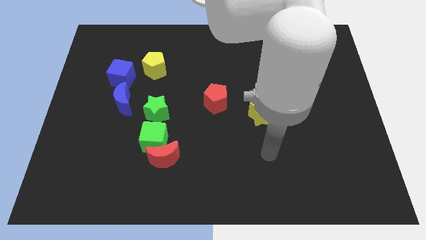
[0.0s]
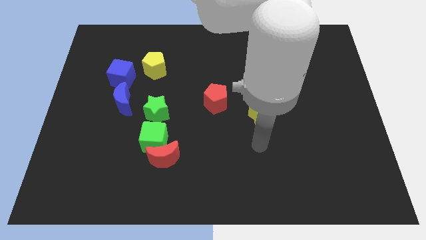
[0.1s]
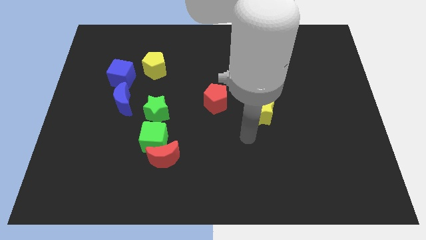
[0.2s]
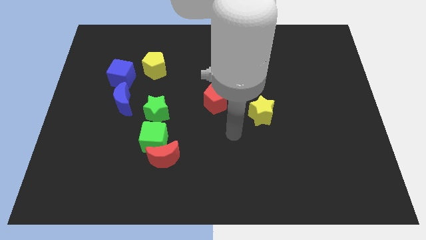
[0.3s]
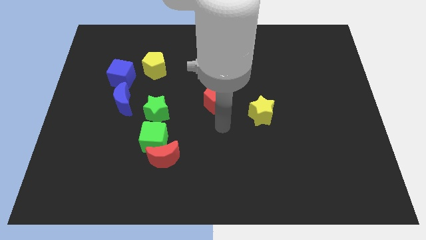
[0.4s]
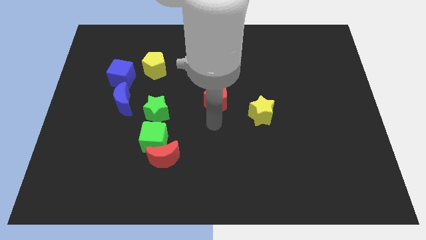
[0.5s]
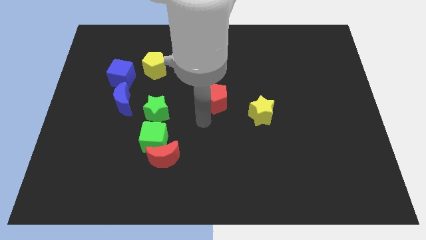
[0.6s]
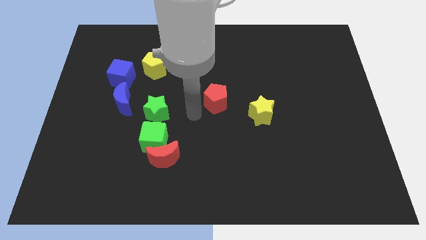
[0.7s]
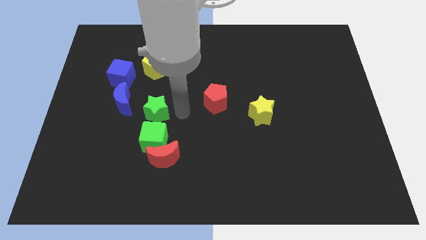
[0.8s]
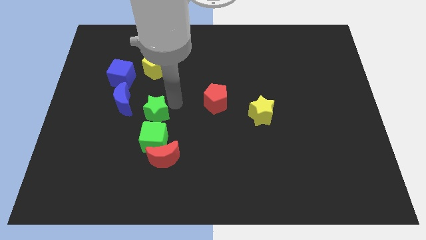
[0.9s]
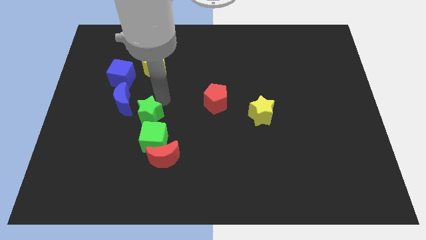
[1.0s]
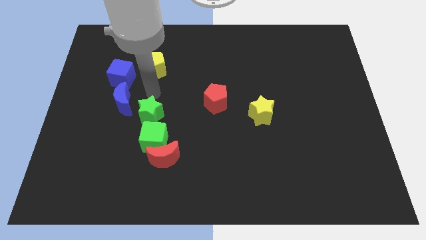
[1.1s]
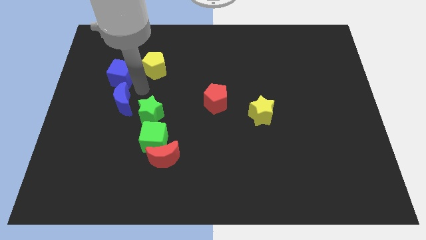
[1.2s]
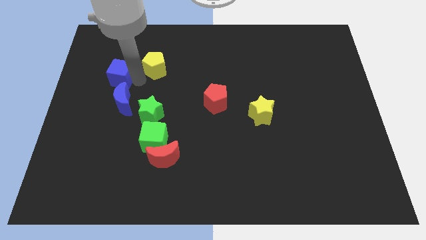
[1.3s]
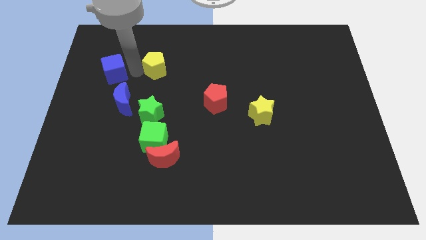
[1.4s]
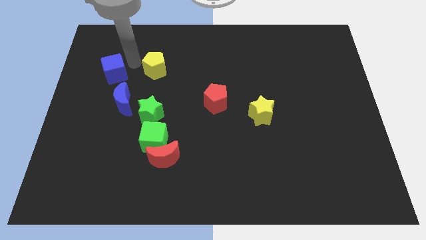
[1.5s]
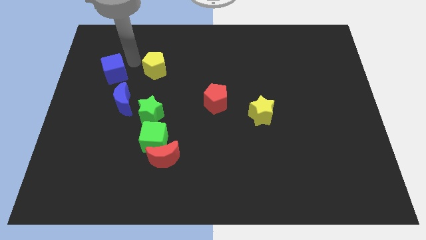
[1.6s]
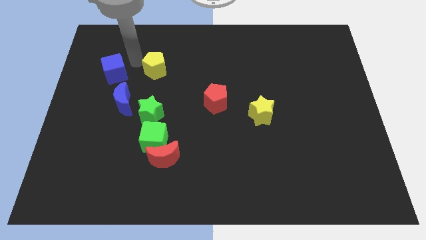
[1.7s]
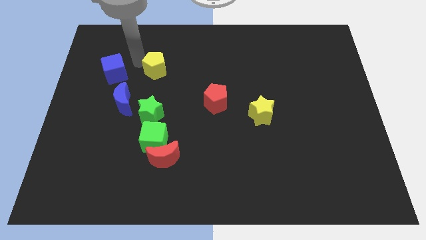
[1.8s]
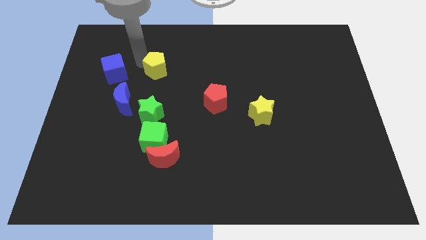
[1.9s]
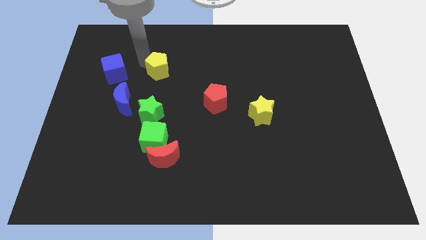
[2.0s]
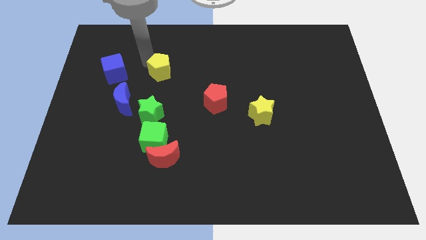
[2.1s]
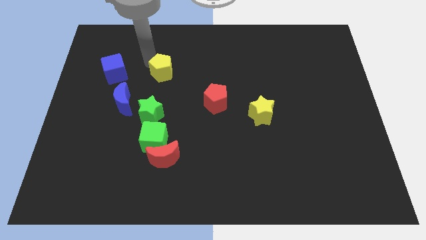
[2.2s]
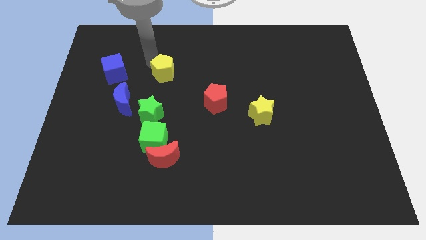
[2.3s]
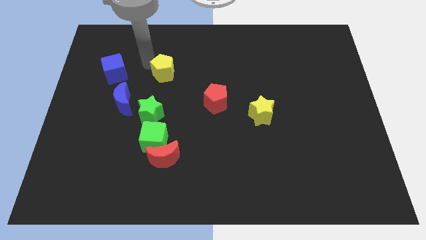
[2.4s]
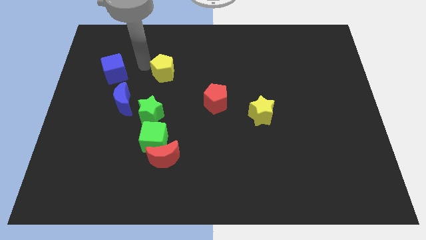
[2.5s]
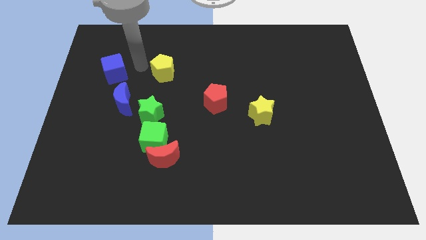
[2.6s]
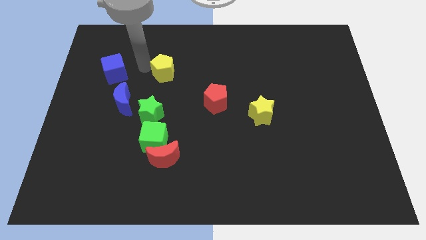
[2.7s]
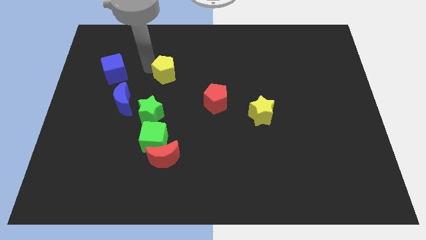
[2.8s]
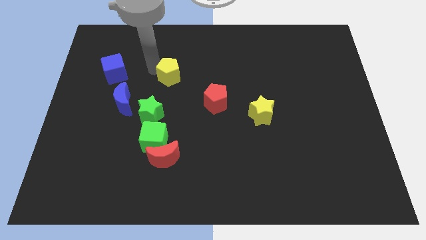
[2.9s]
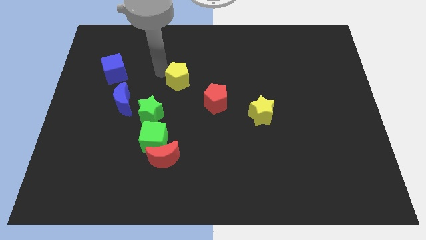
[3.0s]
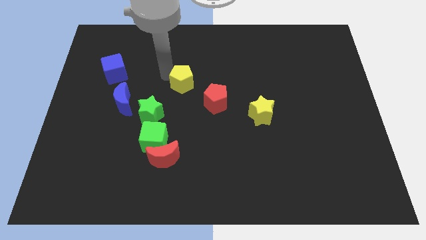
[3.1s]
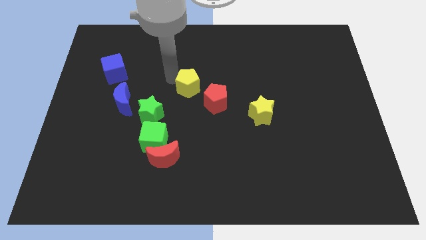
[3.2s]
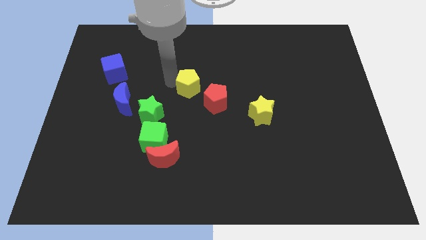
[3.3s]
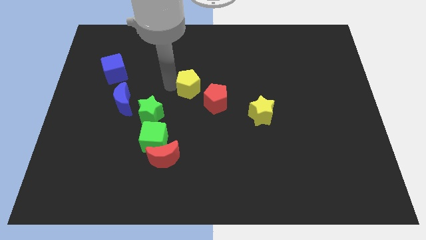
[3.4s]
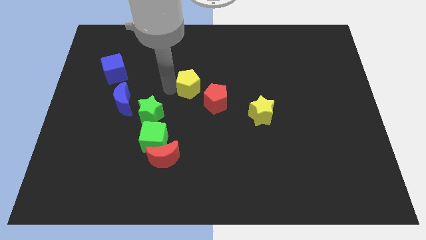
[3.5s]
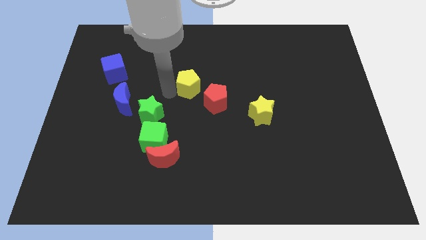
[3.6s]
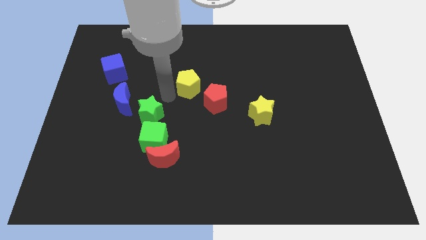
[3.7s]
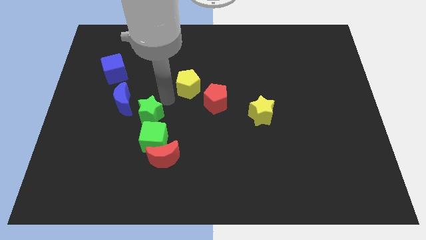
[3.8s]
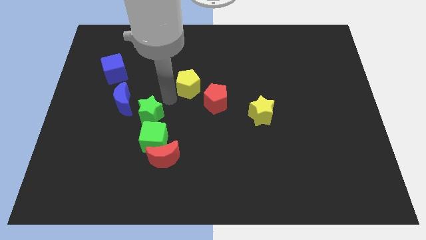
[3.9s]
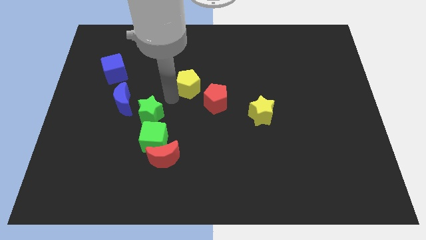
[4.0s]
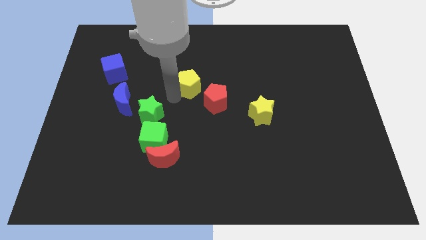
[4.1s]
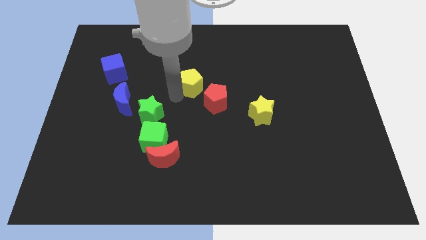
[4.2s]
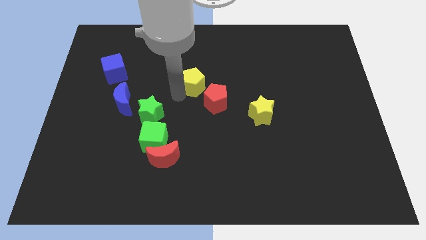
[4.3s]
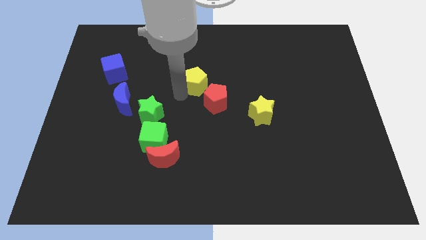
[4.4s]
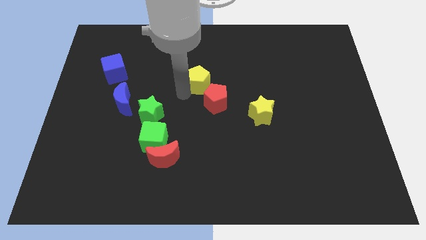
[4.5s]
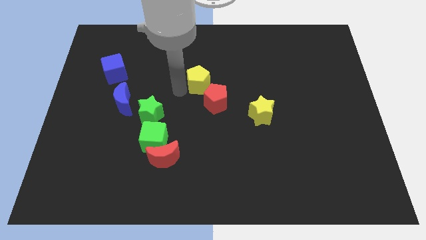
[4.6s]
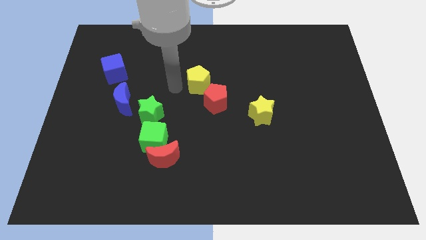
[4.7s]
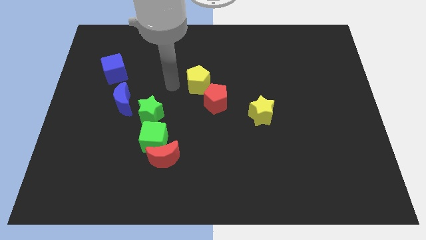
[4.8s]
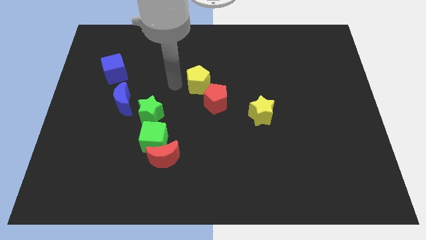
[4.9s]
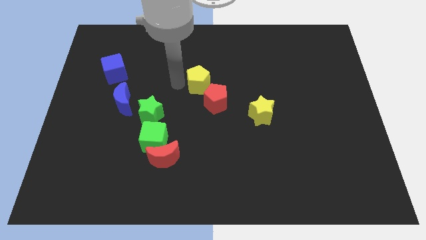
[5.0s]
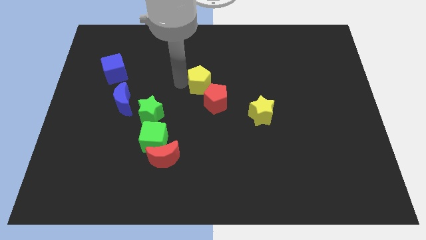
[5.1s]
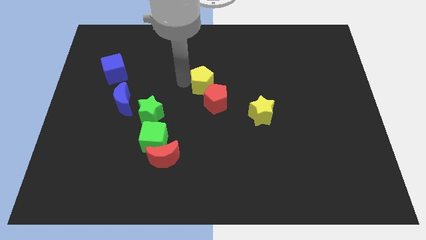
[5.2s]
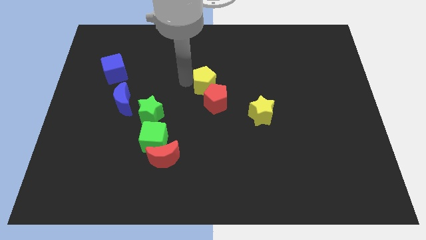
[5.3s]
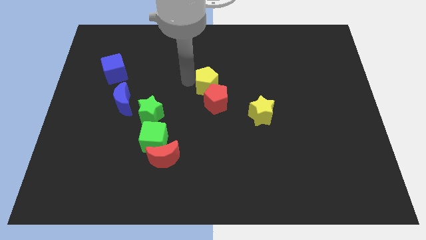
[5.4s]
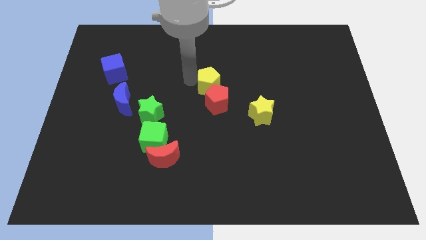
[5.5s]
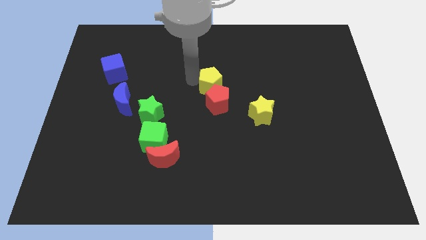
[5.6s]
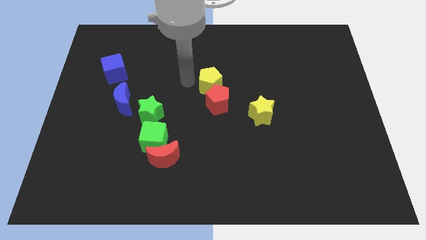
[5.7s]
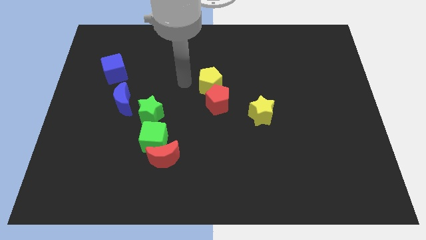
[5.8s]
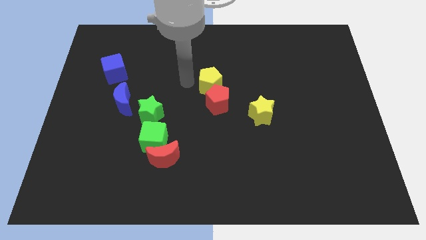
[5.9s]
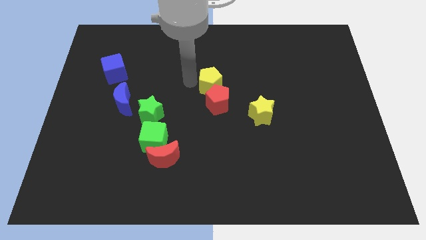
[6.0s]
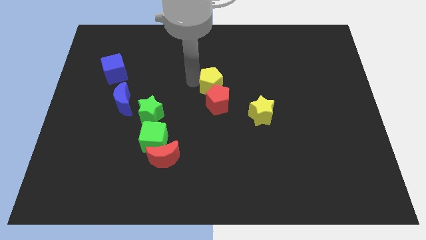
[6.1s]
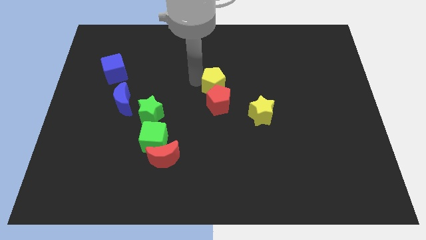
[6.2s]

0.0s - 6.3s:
slide the yellow pentagon diagonally up and to the right of the red pentagon

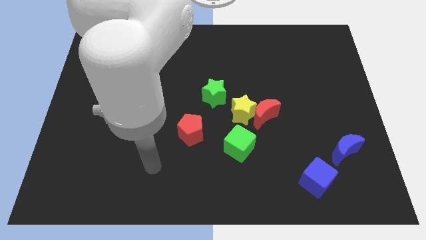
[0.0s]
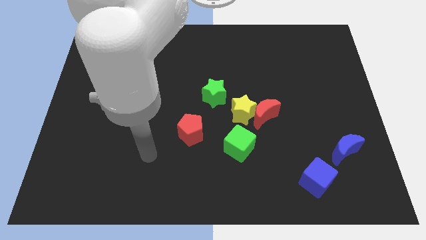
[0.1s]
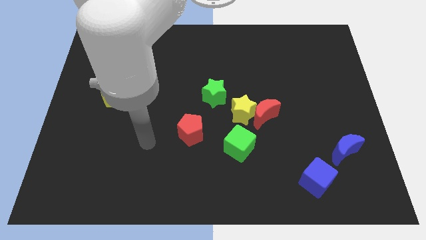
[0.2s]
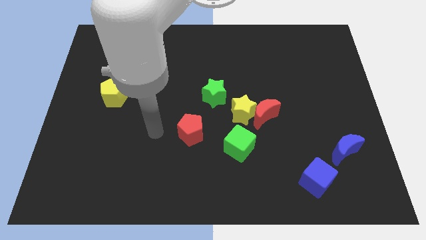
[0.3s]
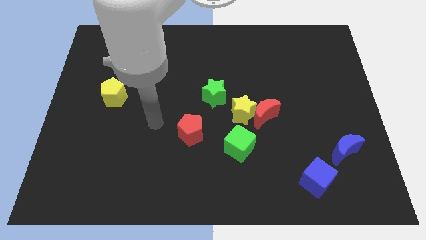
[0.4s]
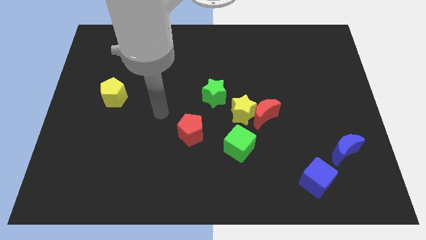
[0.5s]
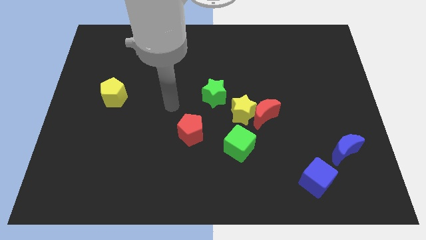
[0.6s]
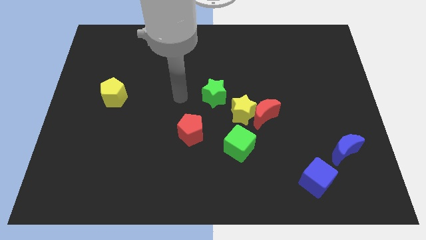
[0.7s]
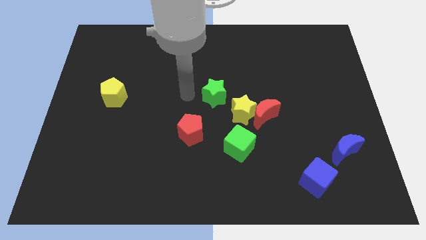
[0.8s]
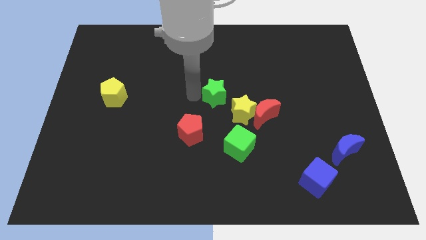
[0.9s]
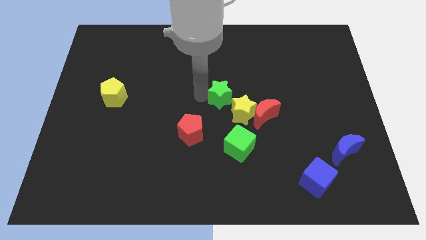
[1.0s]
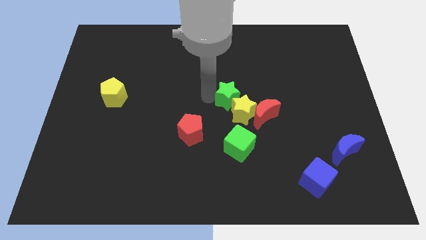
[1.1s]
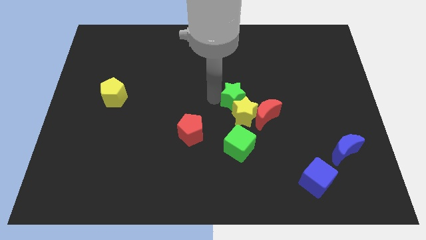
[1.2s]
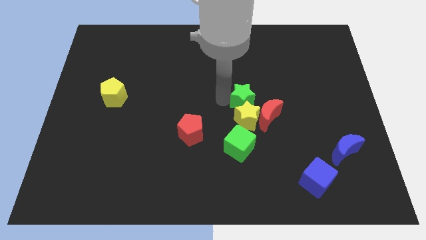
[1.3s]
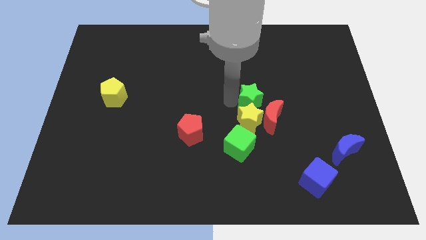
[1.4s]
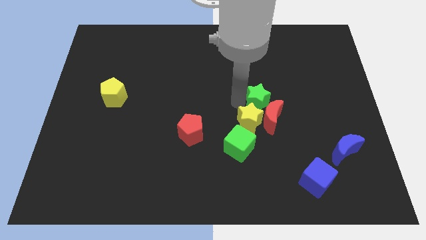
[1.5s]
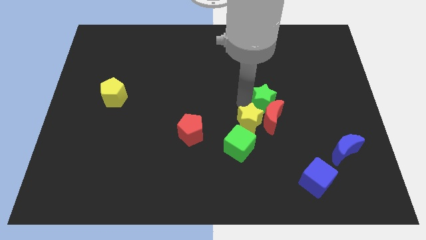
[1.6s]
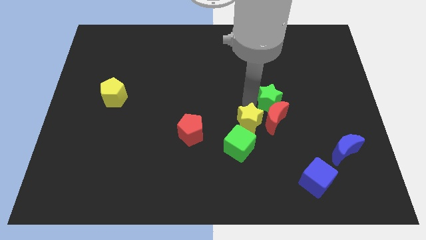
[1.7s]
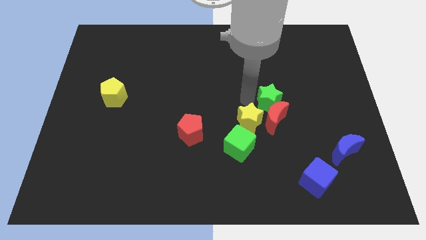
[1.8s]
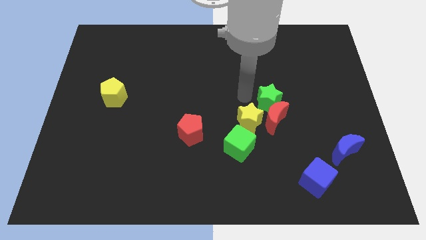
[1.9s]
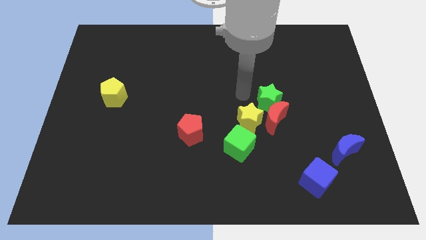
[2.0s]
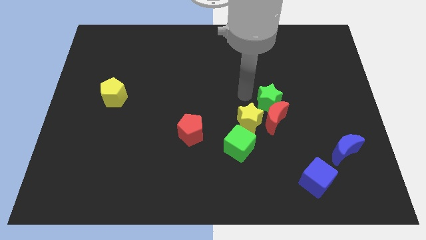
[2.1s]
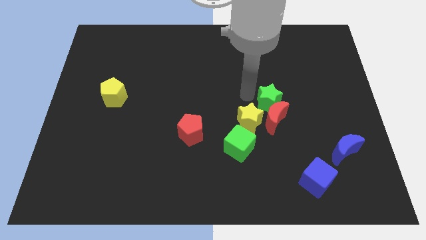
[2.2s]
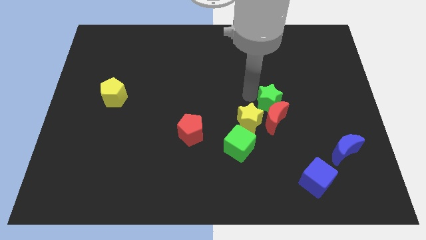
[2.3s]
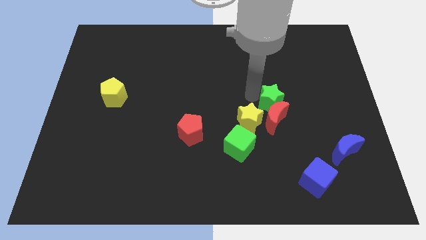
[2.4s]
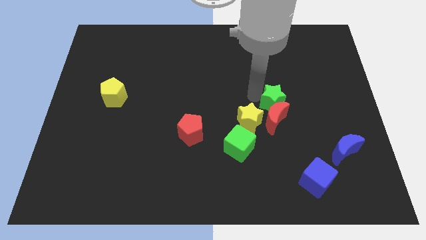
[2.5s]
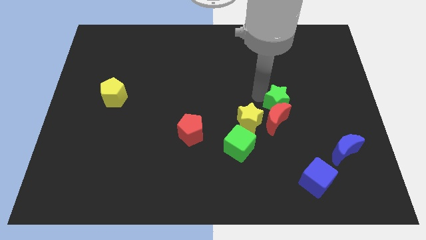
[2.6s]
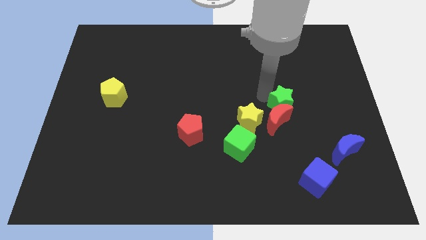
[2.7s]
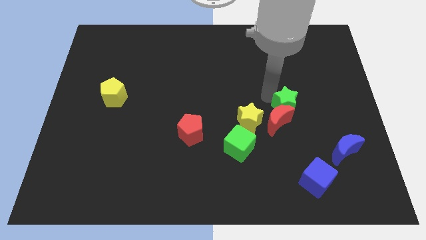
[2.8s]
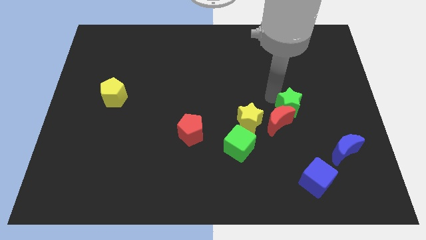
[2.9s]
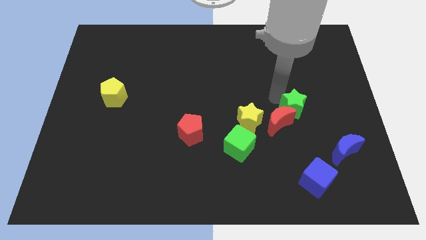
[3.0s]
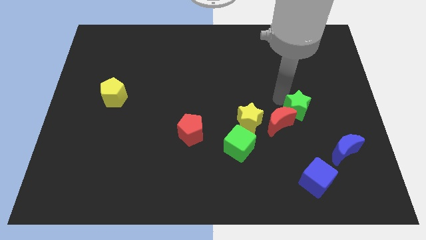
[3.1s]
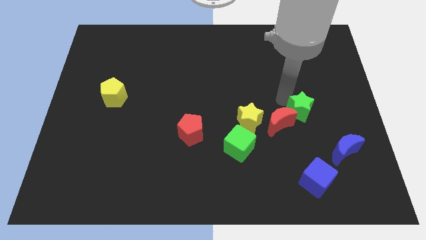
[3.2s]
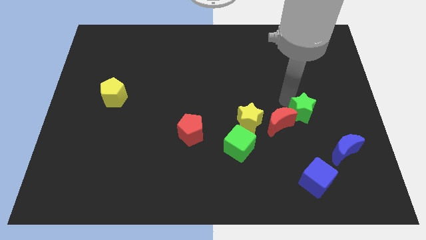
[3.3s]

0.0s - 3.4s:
put the green star to the top left of the blue moon
